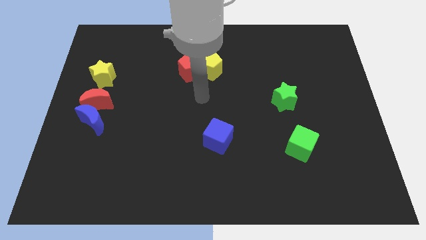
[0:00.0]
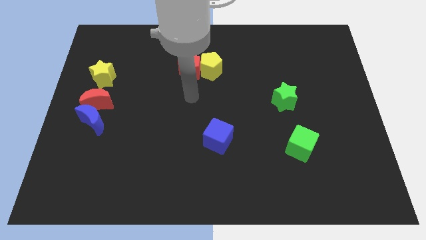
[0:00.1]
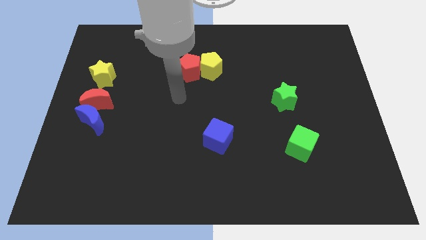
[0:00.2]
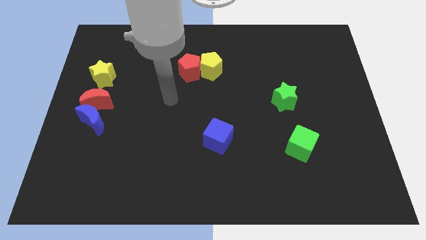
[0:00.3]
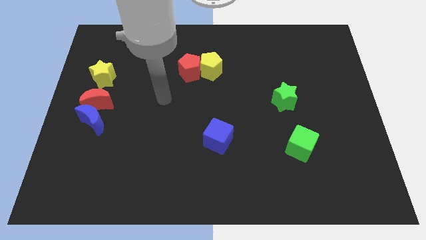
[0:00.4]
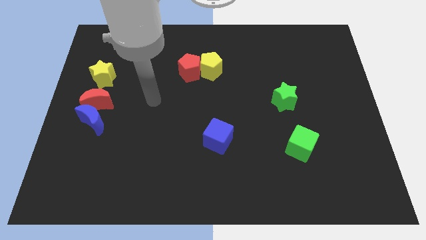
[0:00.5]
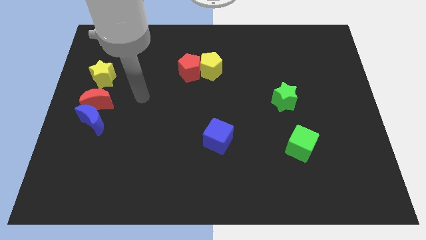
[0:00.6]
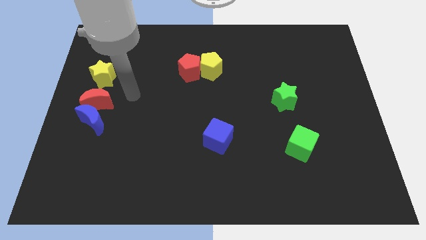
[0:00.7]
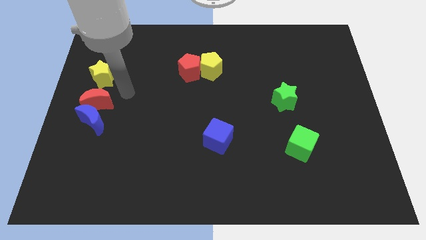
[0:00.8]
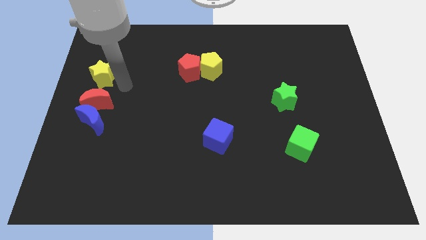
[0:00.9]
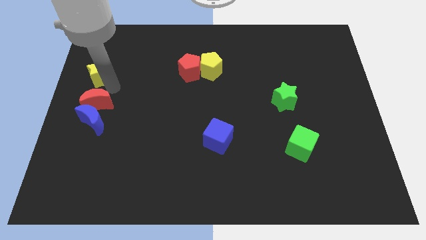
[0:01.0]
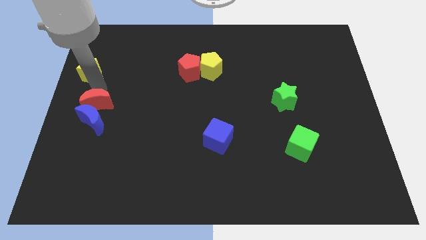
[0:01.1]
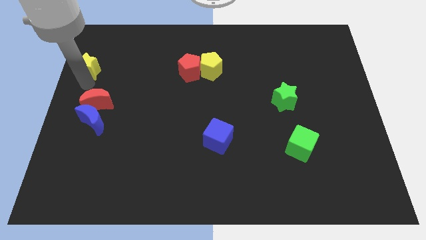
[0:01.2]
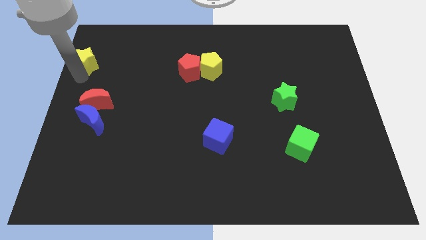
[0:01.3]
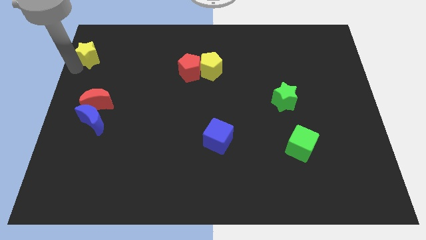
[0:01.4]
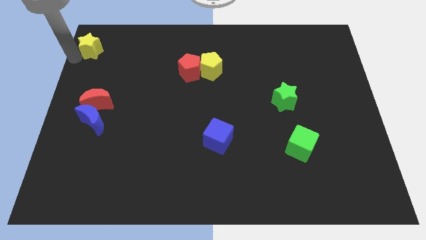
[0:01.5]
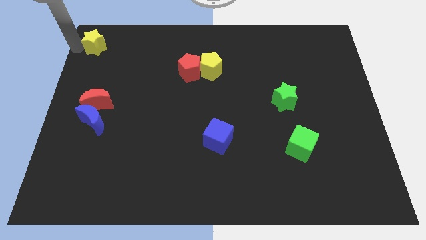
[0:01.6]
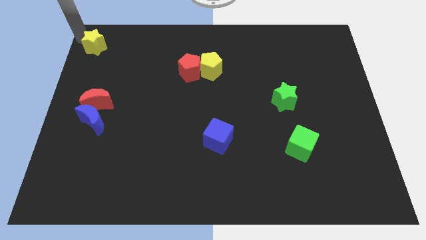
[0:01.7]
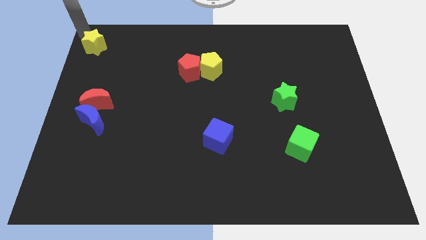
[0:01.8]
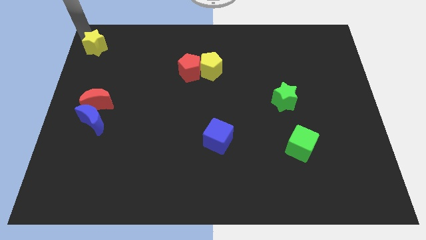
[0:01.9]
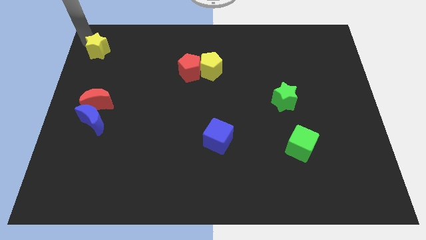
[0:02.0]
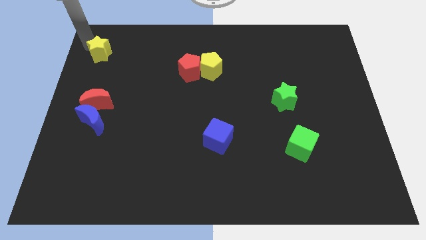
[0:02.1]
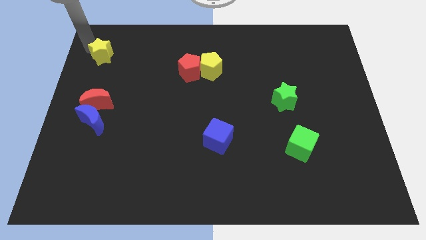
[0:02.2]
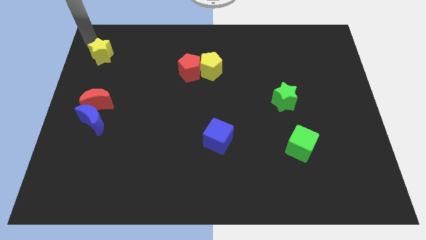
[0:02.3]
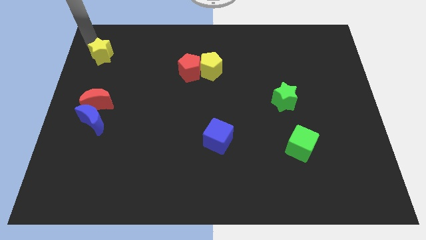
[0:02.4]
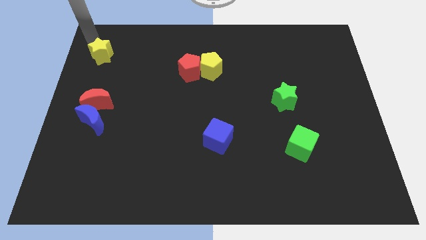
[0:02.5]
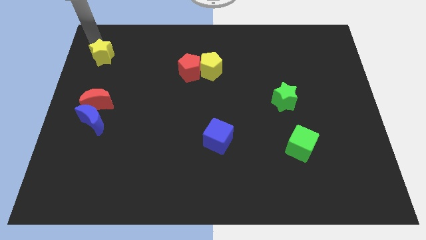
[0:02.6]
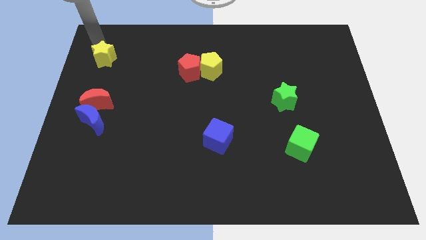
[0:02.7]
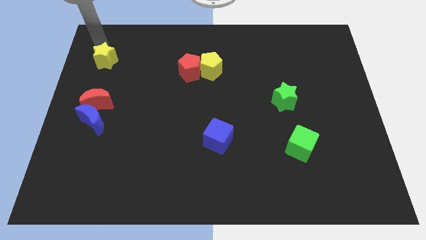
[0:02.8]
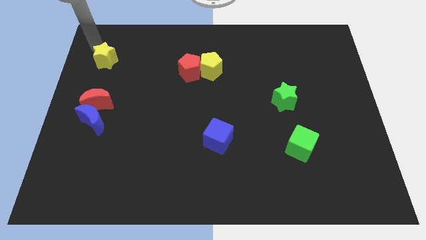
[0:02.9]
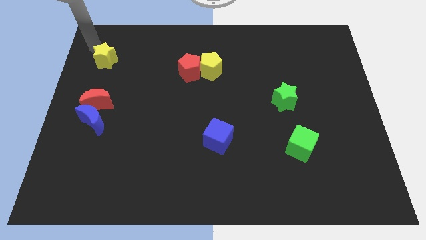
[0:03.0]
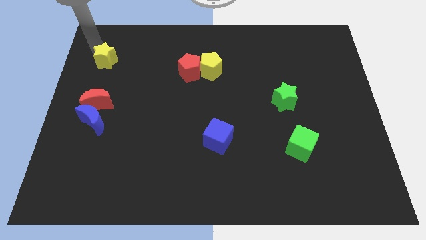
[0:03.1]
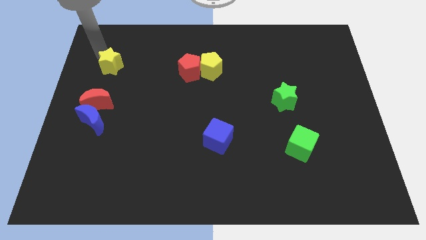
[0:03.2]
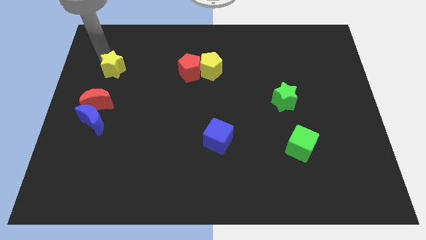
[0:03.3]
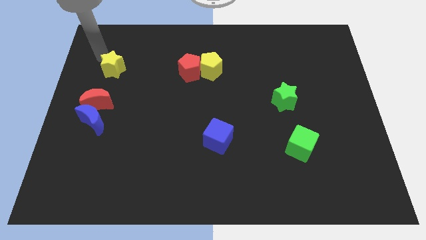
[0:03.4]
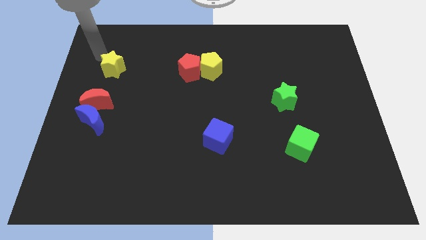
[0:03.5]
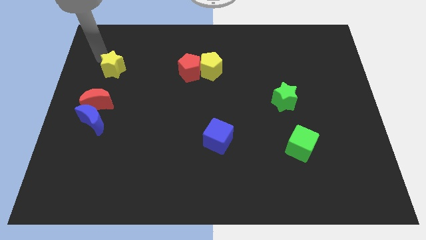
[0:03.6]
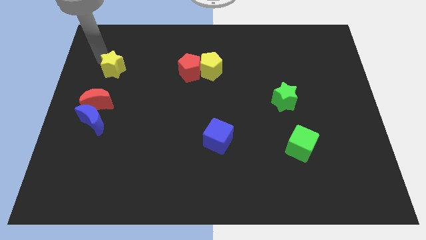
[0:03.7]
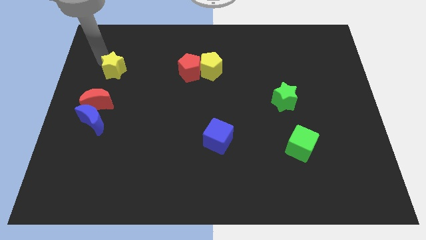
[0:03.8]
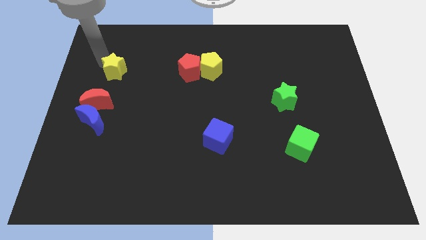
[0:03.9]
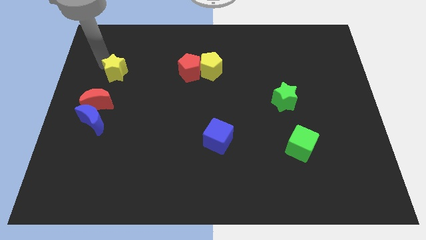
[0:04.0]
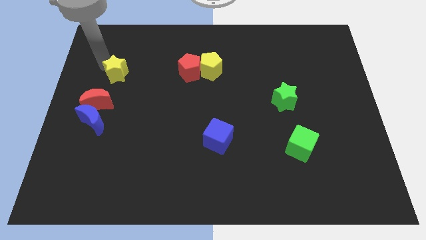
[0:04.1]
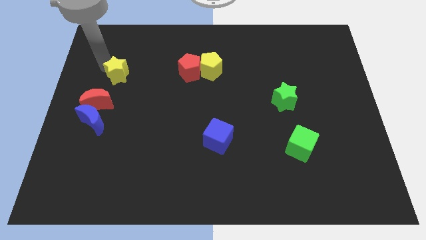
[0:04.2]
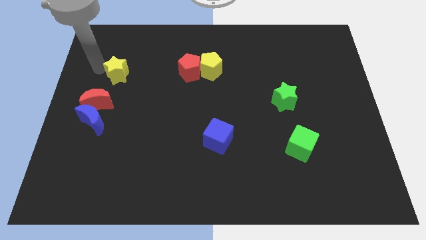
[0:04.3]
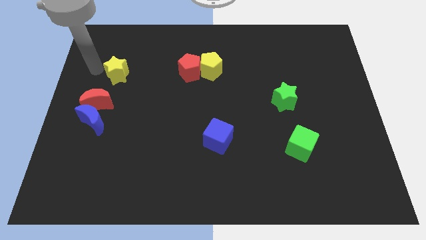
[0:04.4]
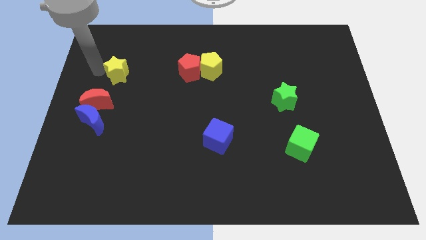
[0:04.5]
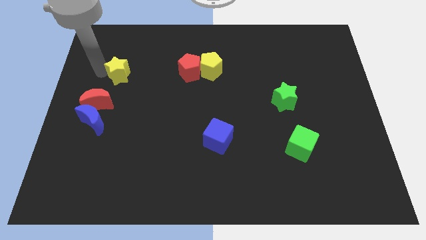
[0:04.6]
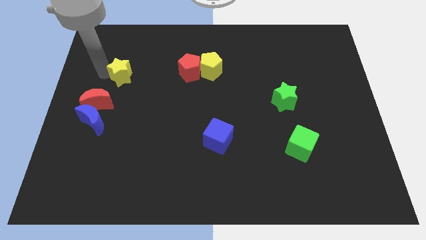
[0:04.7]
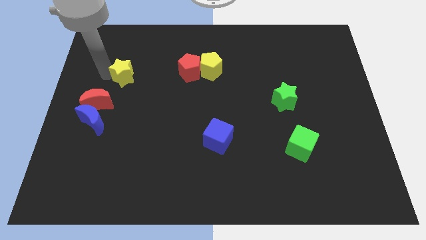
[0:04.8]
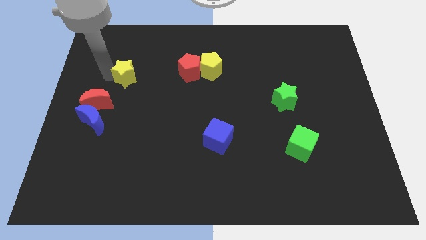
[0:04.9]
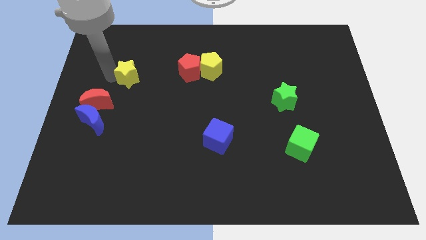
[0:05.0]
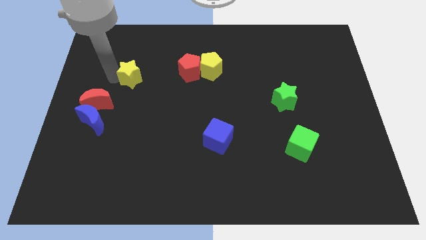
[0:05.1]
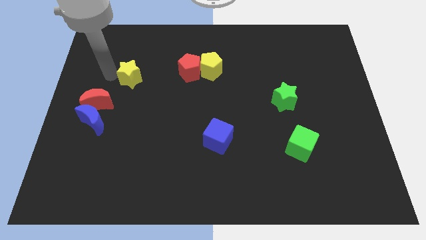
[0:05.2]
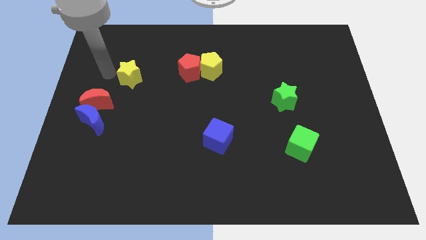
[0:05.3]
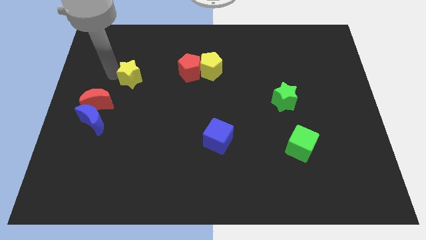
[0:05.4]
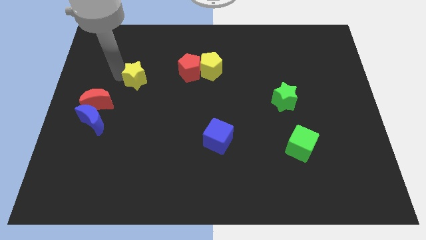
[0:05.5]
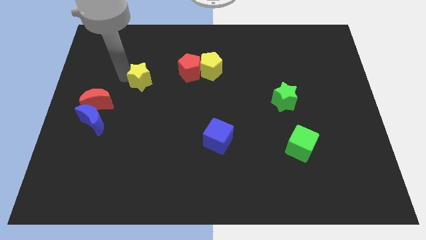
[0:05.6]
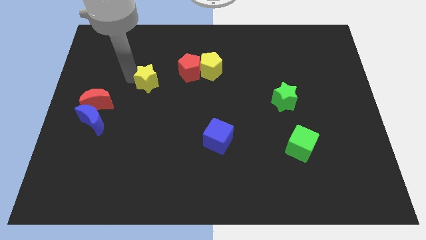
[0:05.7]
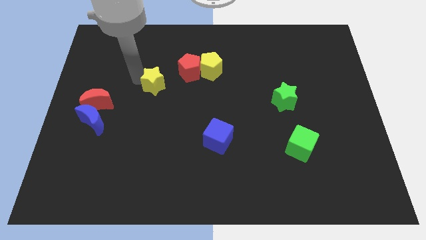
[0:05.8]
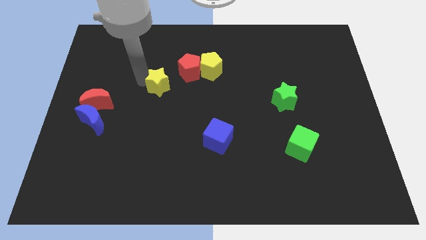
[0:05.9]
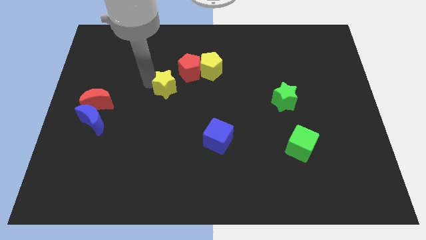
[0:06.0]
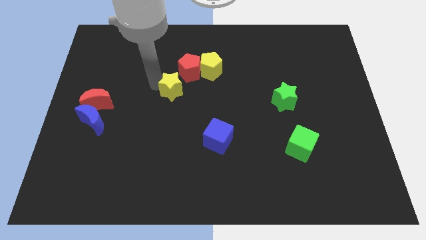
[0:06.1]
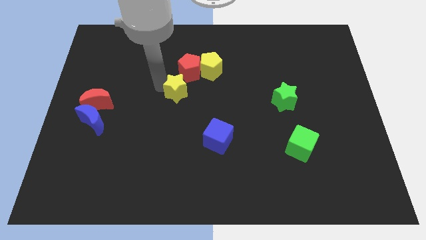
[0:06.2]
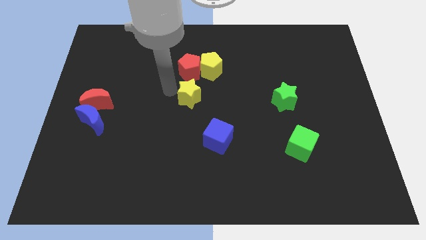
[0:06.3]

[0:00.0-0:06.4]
move the yellow star to the right

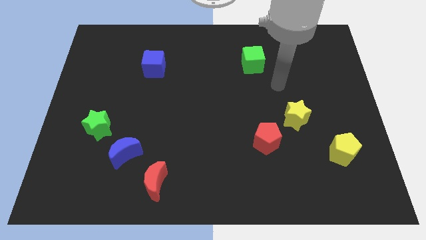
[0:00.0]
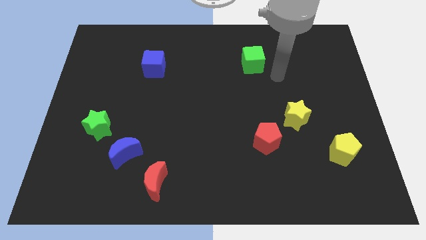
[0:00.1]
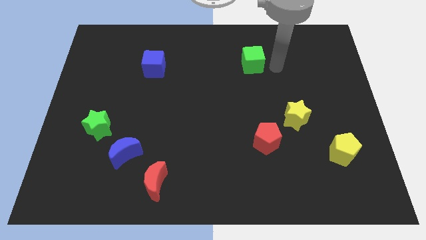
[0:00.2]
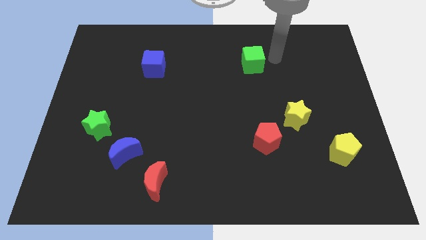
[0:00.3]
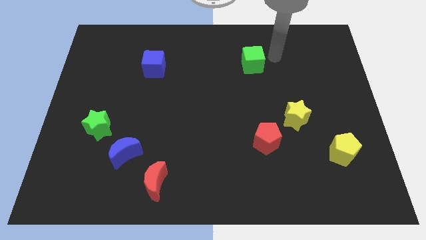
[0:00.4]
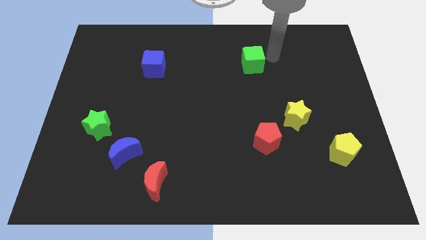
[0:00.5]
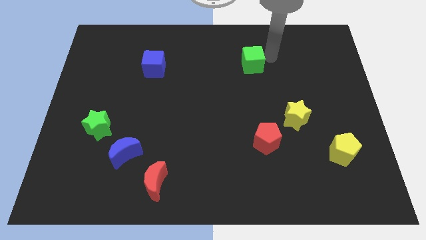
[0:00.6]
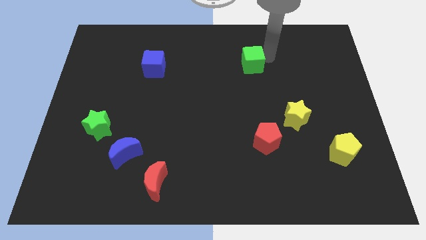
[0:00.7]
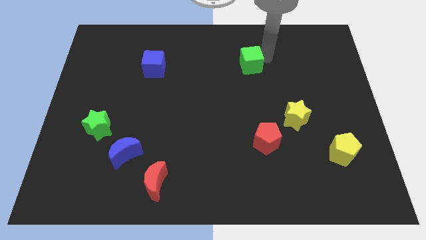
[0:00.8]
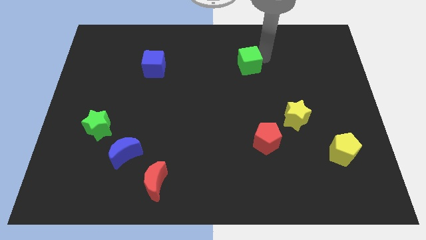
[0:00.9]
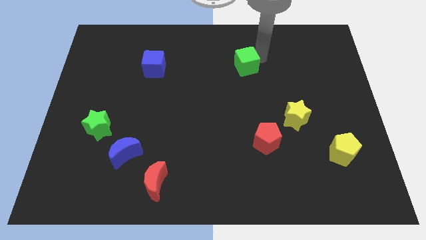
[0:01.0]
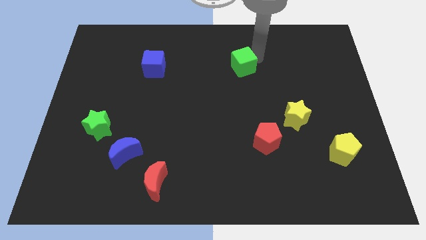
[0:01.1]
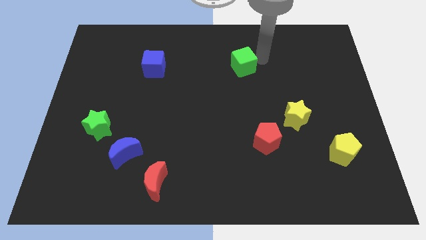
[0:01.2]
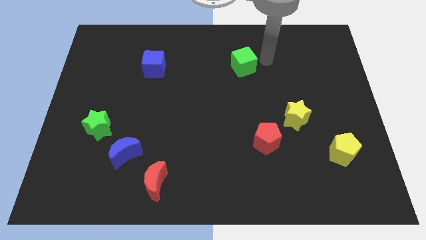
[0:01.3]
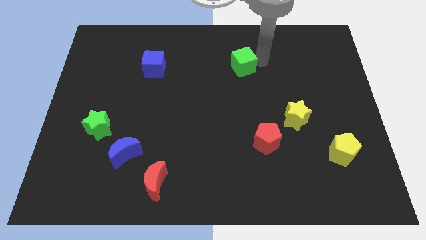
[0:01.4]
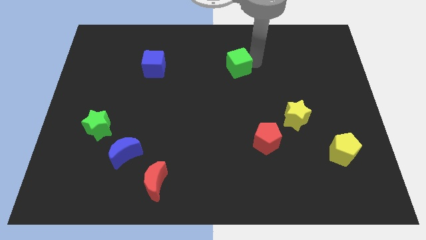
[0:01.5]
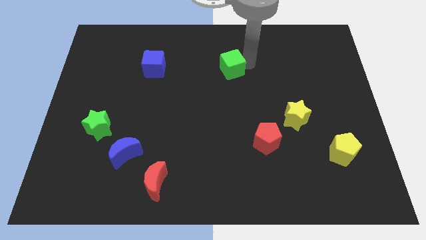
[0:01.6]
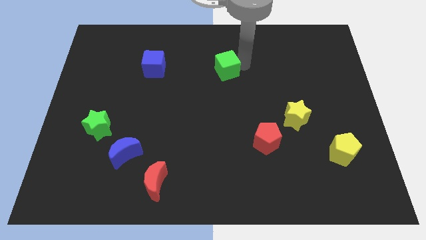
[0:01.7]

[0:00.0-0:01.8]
slide the green cube left slightly
